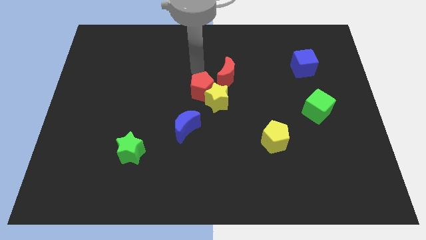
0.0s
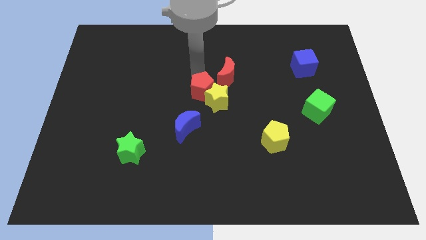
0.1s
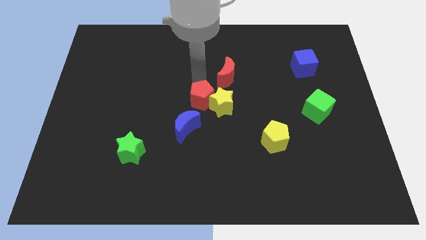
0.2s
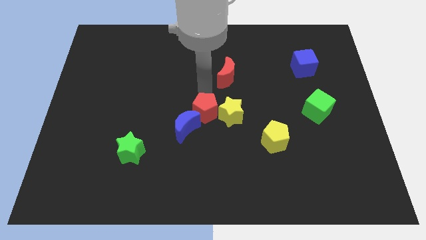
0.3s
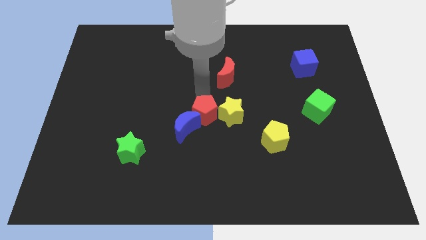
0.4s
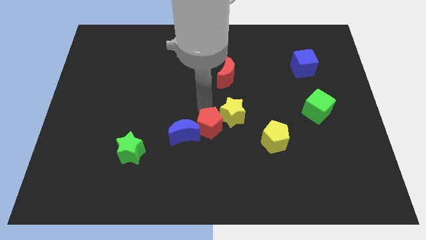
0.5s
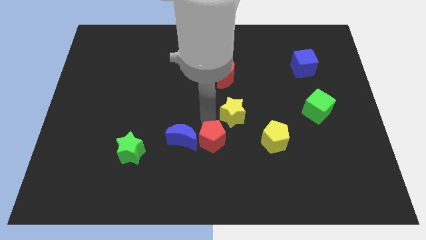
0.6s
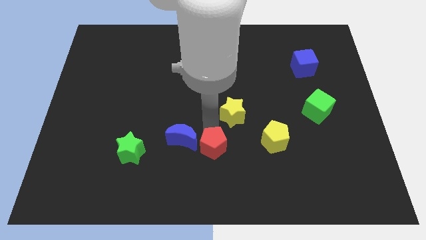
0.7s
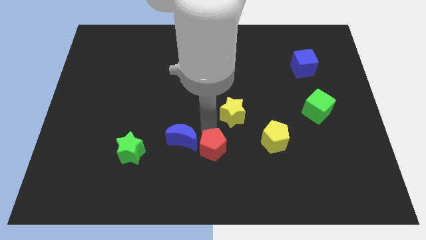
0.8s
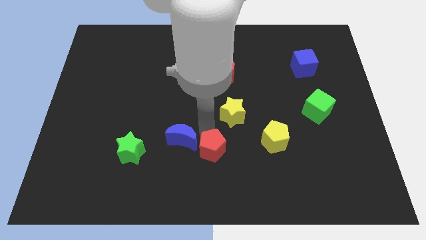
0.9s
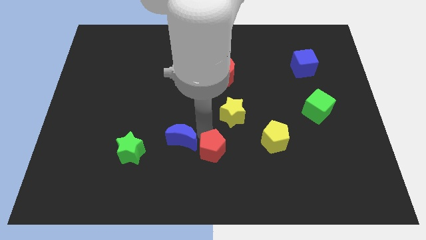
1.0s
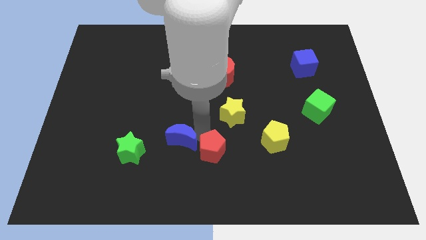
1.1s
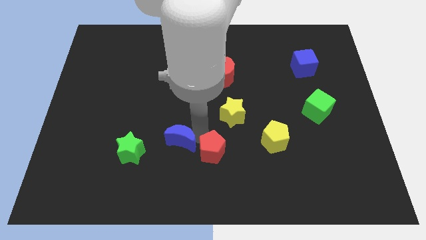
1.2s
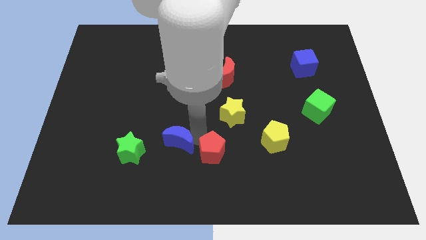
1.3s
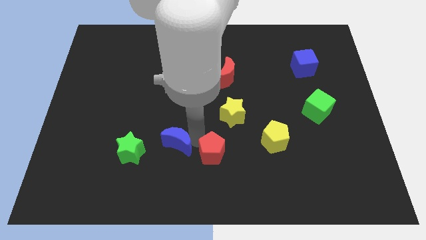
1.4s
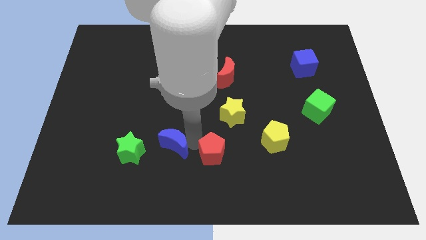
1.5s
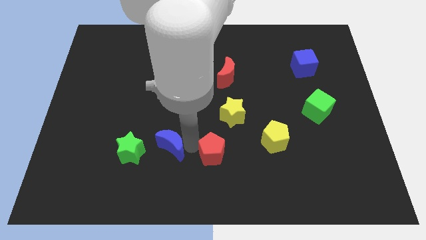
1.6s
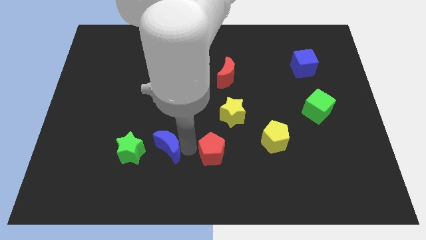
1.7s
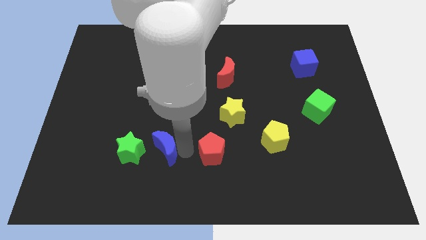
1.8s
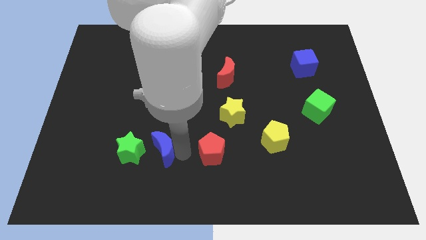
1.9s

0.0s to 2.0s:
move the blue moon a little bit downwards and to the left diagonally

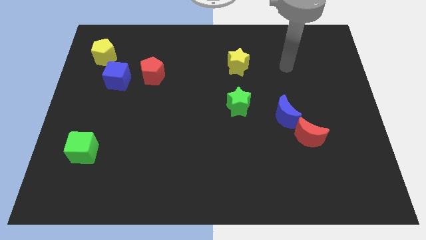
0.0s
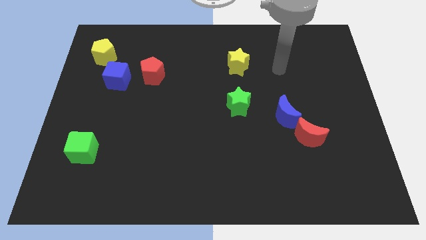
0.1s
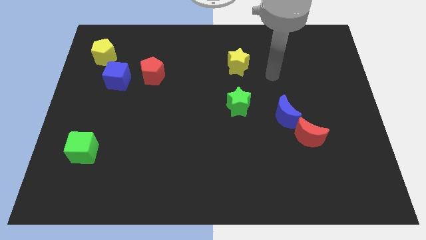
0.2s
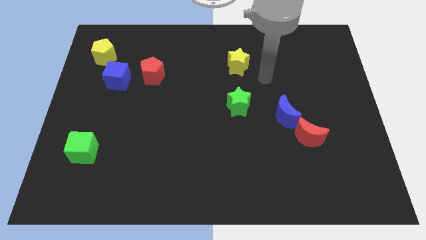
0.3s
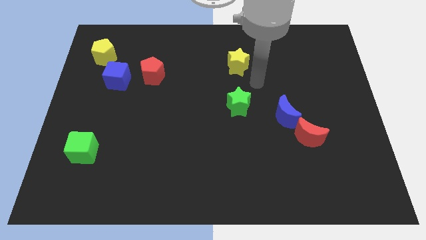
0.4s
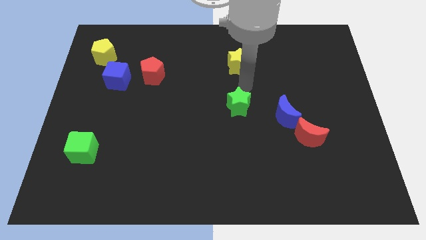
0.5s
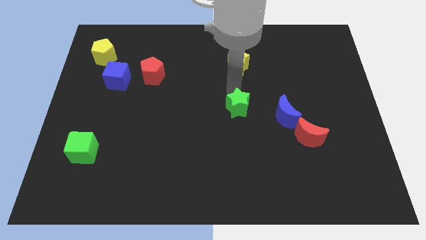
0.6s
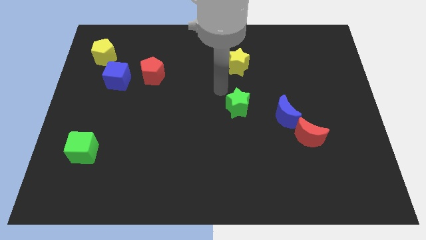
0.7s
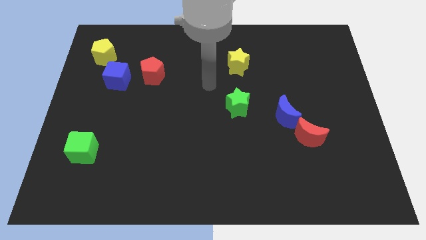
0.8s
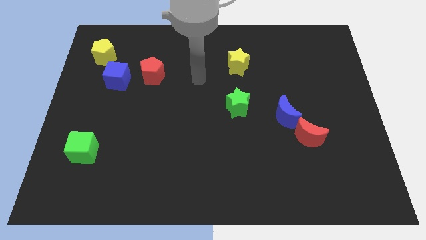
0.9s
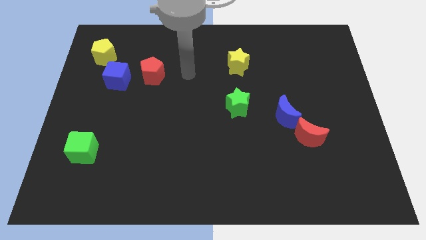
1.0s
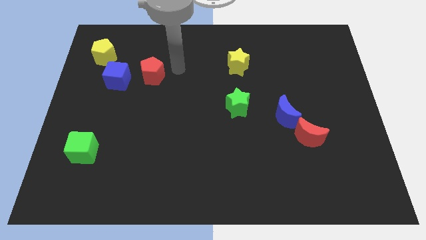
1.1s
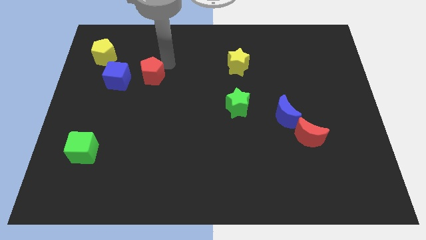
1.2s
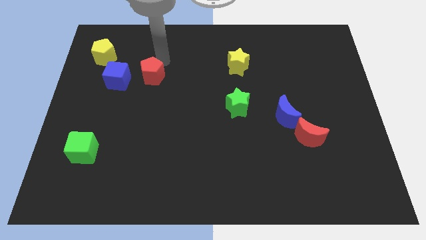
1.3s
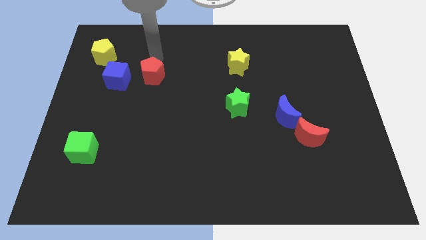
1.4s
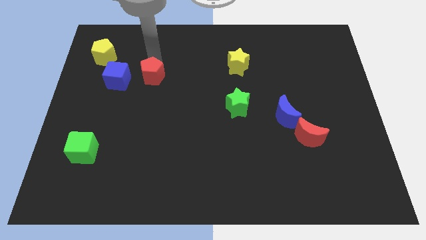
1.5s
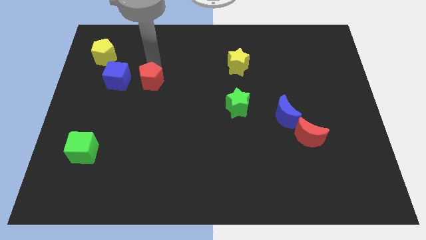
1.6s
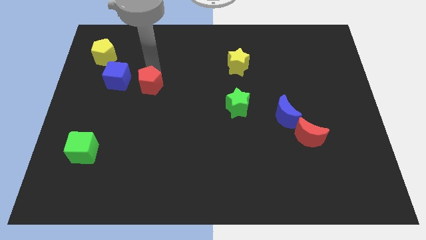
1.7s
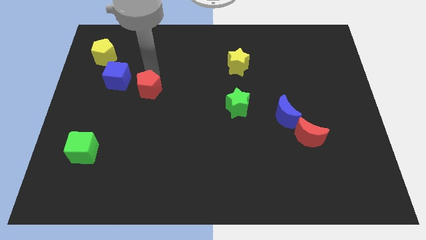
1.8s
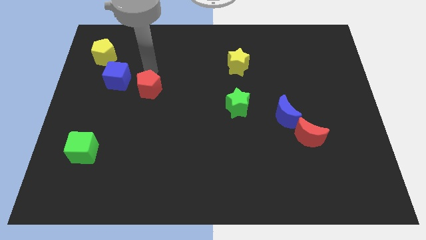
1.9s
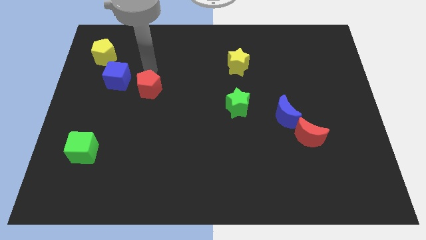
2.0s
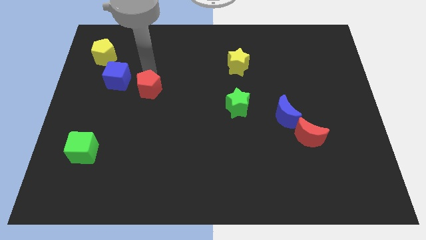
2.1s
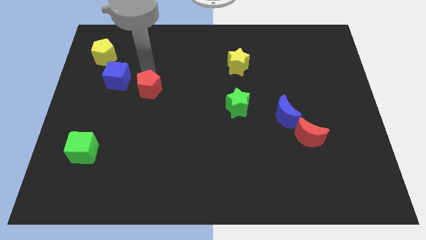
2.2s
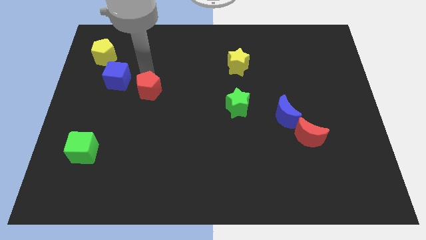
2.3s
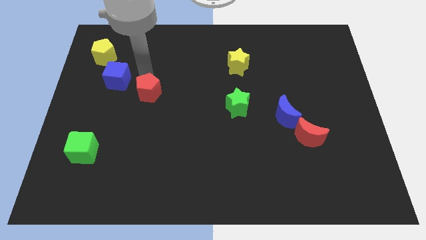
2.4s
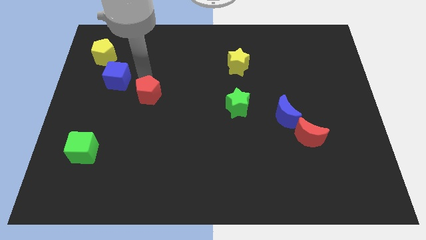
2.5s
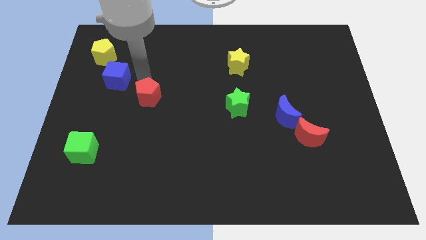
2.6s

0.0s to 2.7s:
slide the red pentagon a little bit down

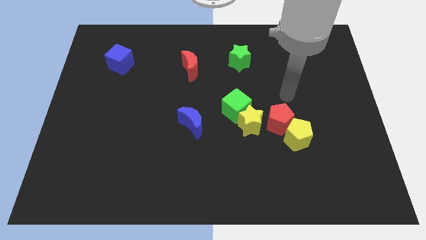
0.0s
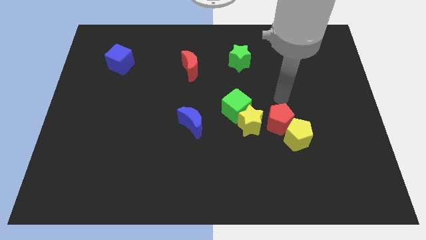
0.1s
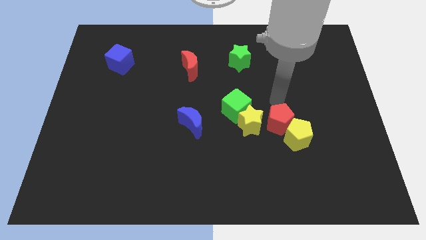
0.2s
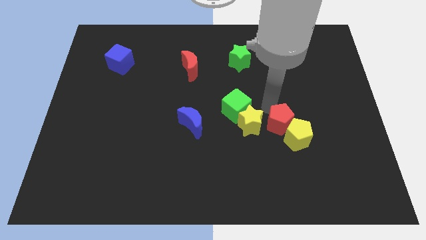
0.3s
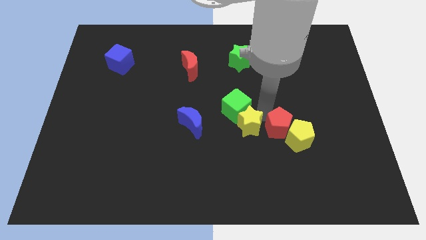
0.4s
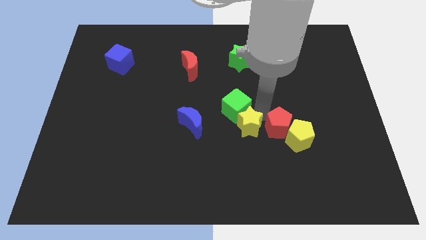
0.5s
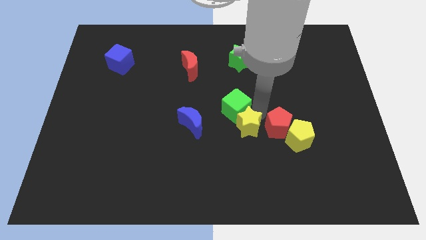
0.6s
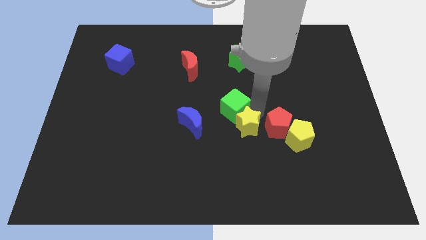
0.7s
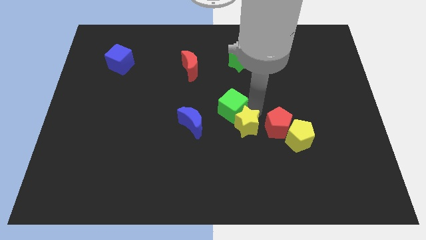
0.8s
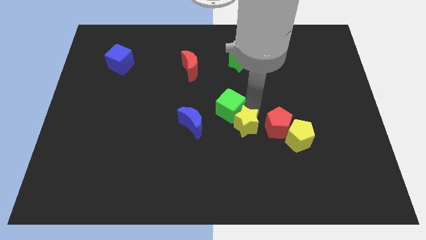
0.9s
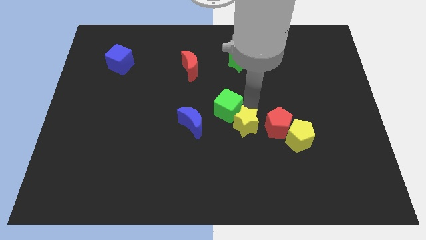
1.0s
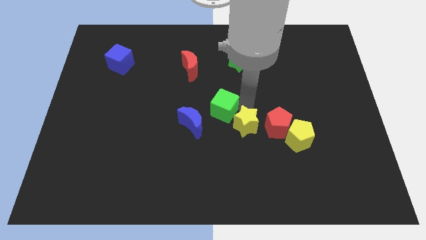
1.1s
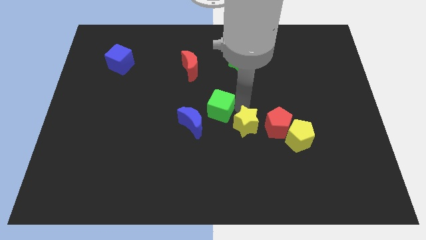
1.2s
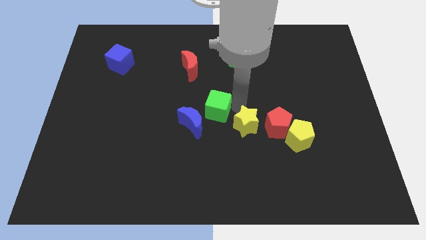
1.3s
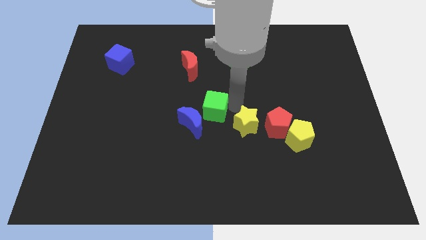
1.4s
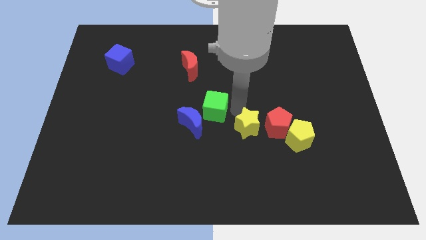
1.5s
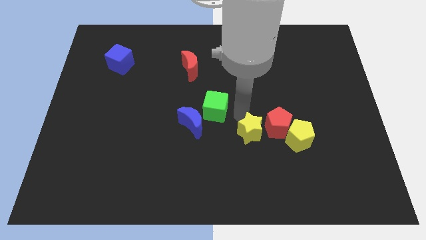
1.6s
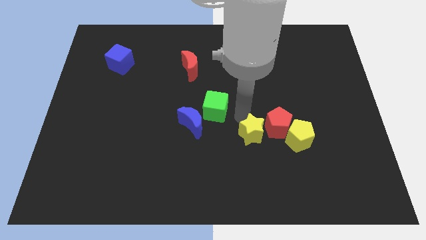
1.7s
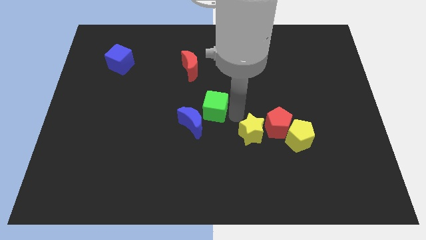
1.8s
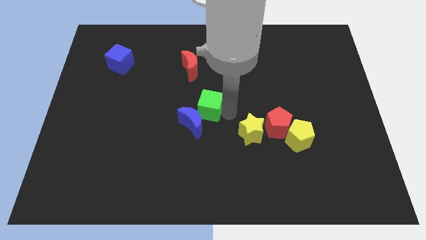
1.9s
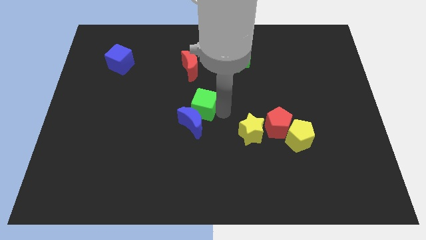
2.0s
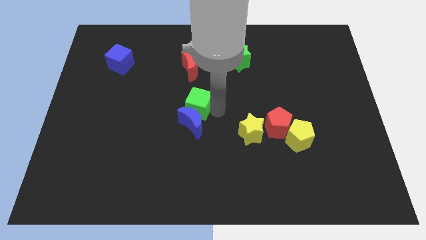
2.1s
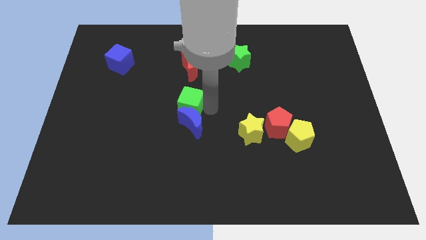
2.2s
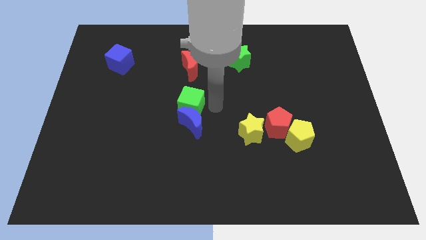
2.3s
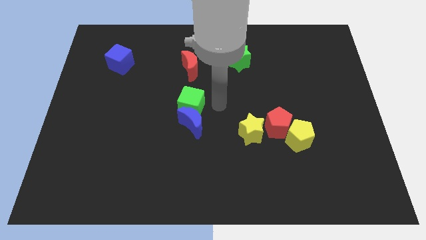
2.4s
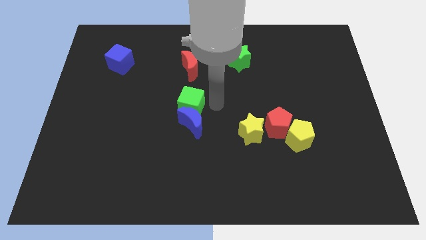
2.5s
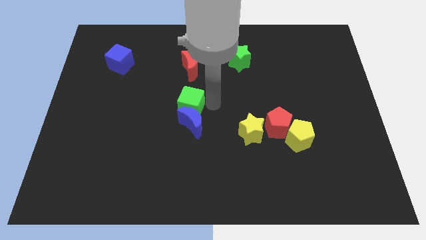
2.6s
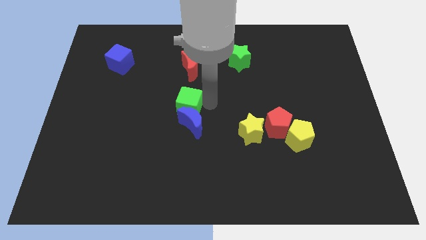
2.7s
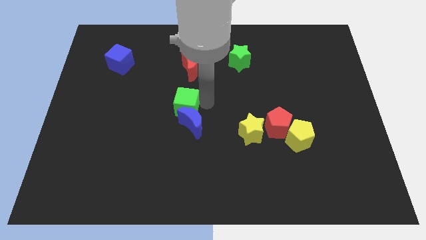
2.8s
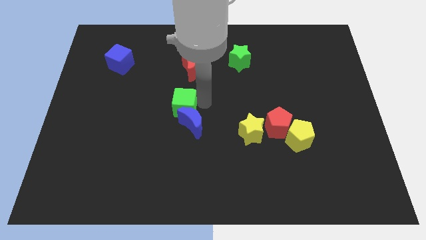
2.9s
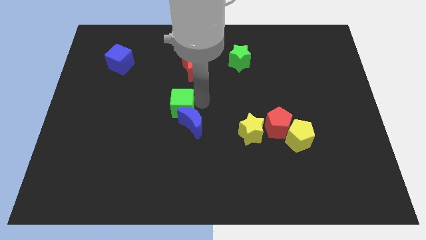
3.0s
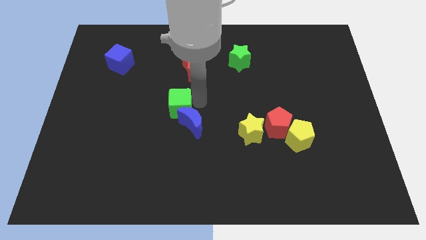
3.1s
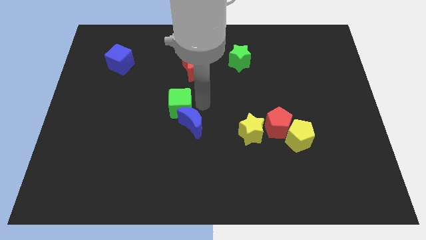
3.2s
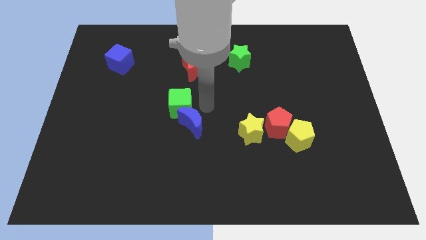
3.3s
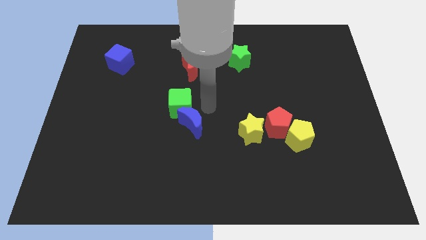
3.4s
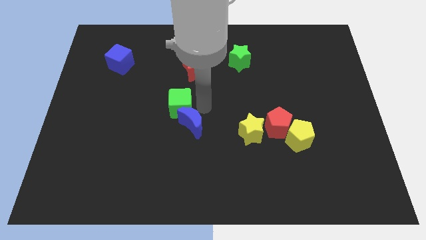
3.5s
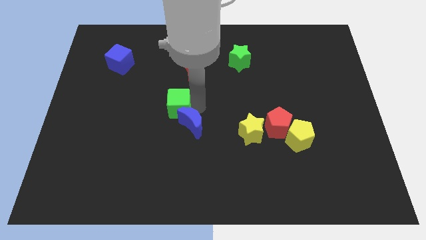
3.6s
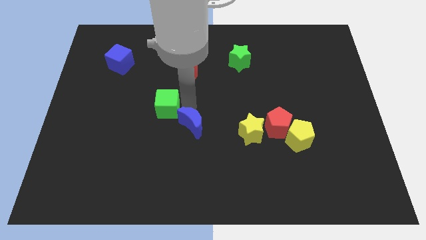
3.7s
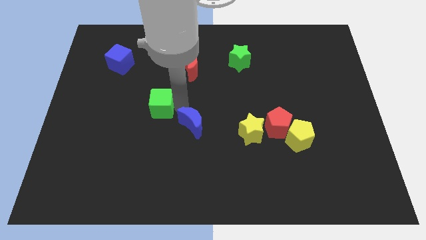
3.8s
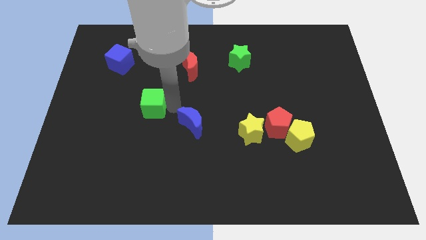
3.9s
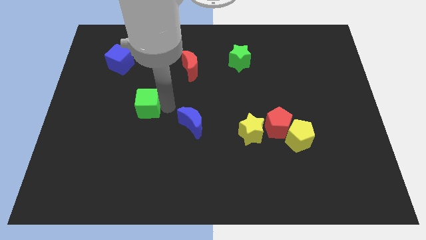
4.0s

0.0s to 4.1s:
push the green cube to the left
